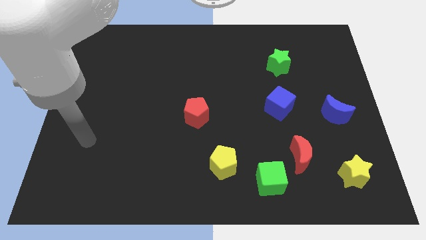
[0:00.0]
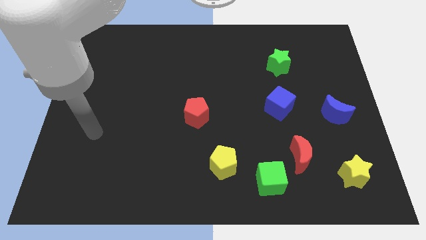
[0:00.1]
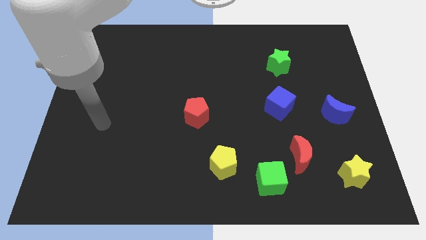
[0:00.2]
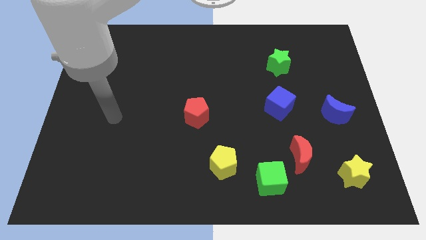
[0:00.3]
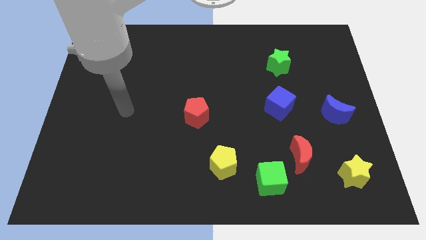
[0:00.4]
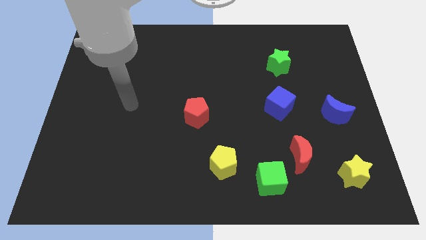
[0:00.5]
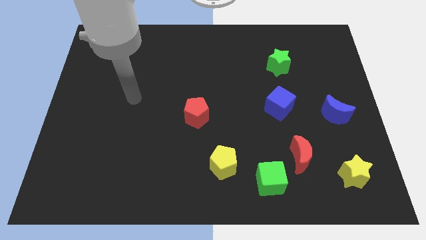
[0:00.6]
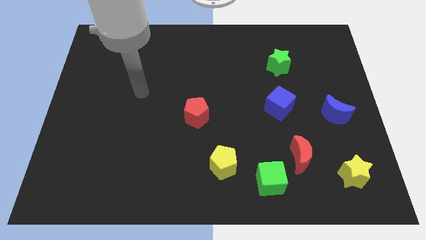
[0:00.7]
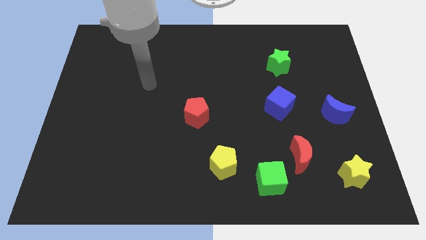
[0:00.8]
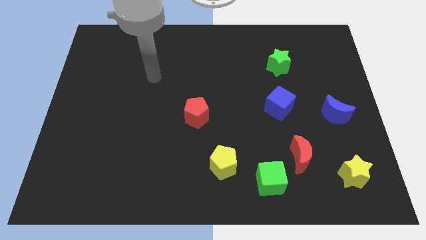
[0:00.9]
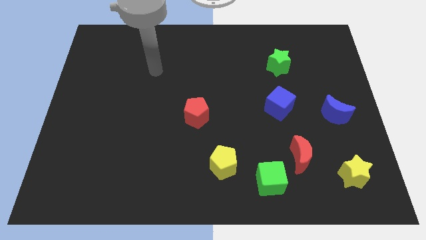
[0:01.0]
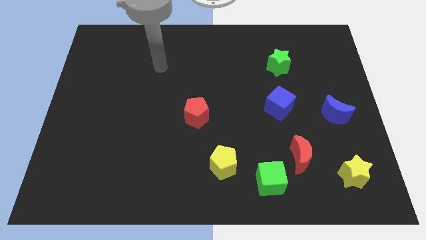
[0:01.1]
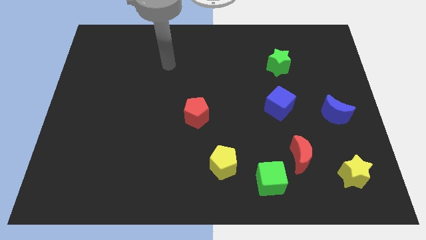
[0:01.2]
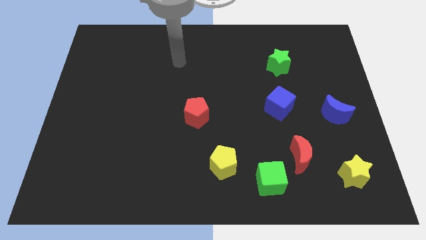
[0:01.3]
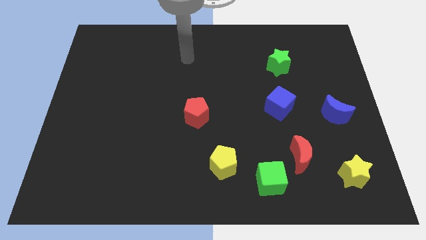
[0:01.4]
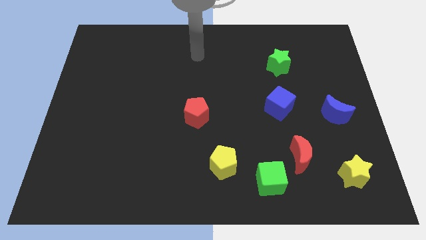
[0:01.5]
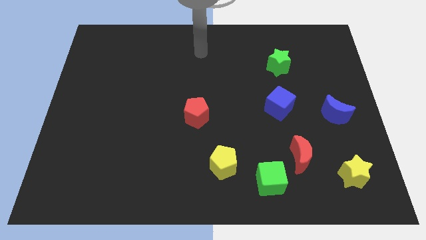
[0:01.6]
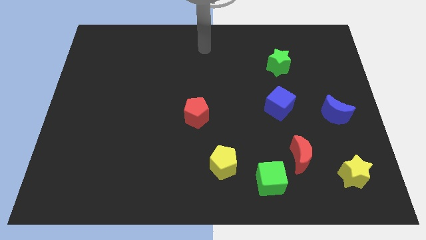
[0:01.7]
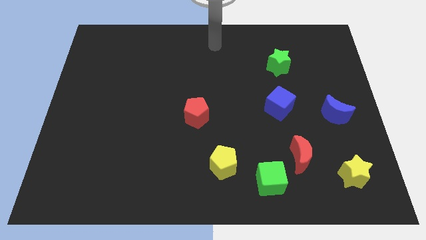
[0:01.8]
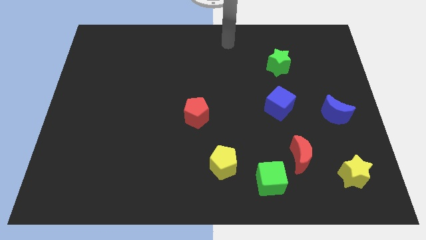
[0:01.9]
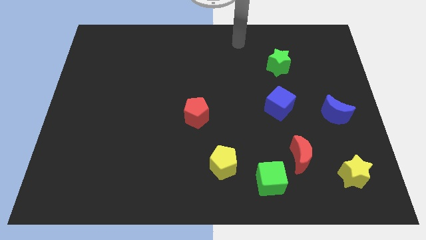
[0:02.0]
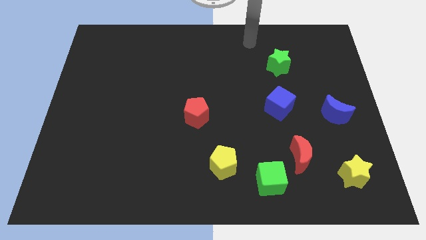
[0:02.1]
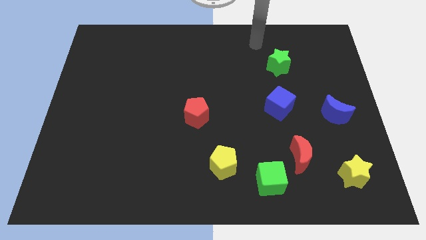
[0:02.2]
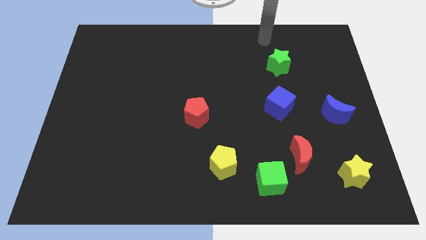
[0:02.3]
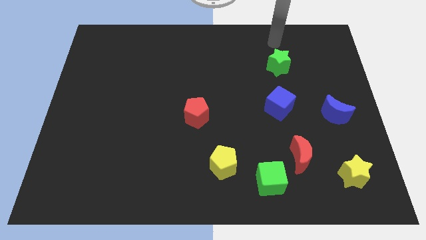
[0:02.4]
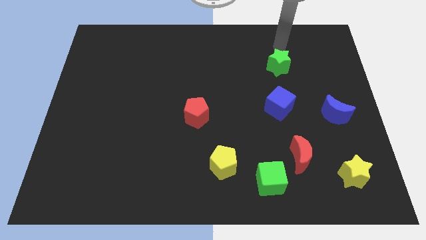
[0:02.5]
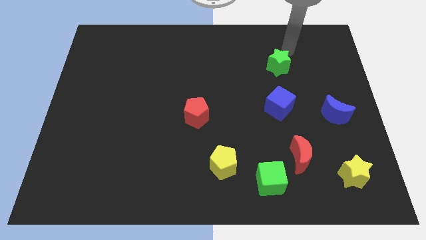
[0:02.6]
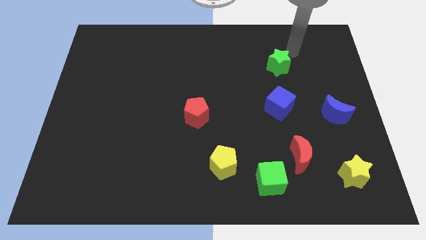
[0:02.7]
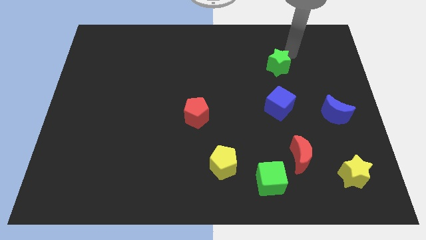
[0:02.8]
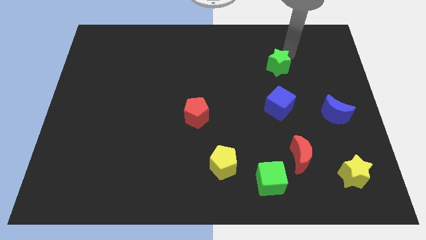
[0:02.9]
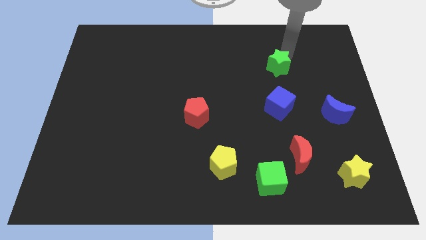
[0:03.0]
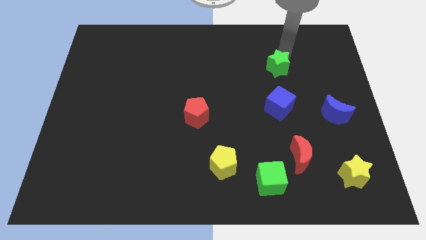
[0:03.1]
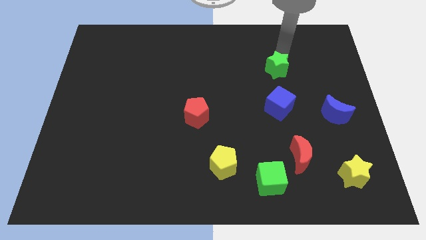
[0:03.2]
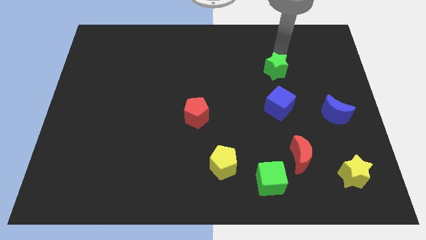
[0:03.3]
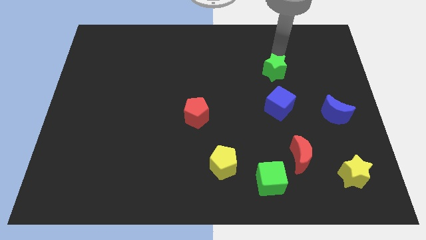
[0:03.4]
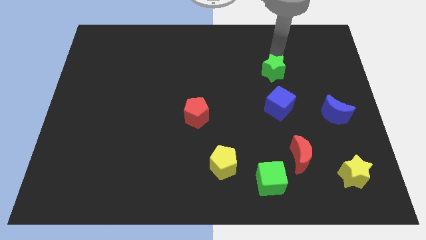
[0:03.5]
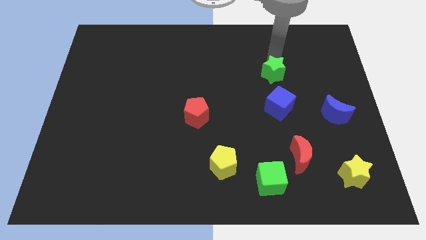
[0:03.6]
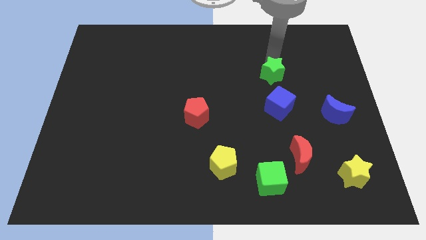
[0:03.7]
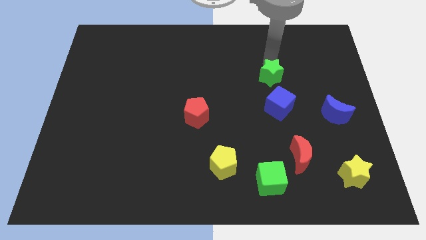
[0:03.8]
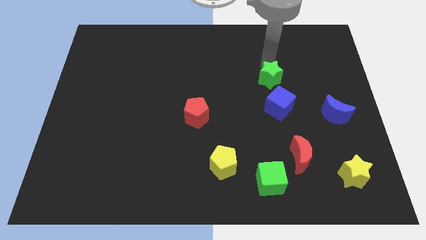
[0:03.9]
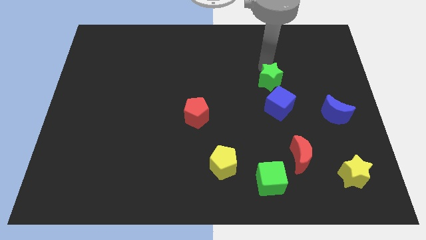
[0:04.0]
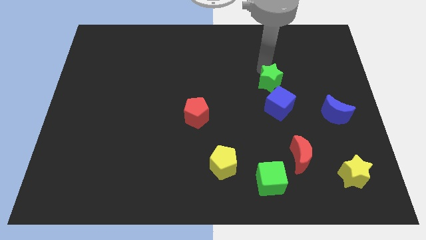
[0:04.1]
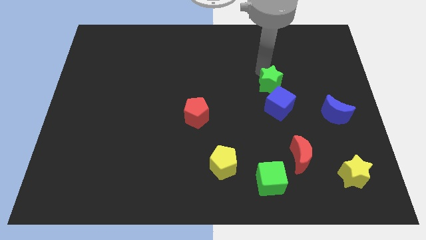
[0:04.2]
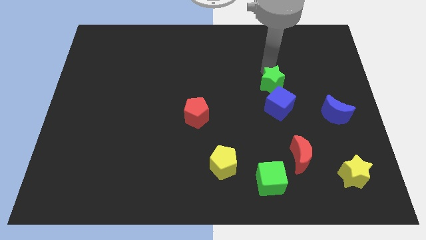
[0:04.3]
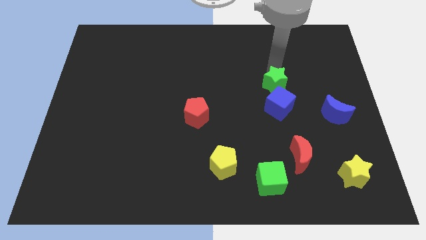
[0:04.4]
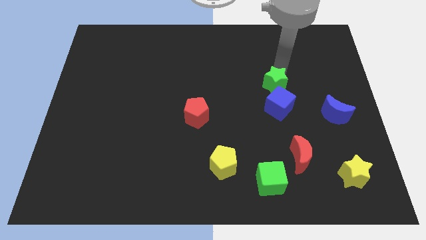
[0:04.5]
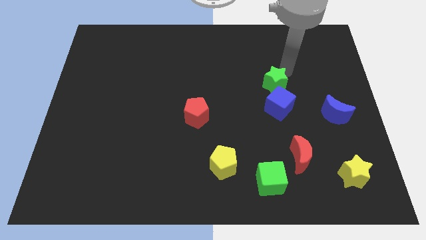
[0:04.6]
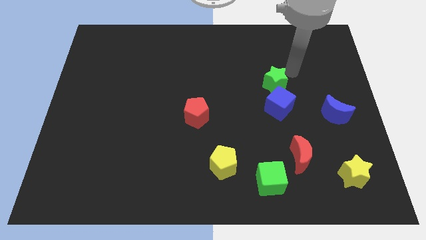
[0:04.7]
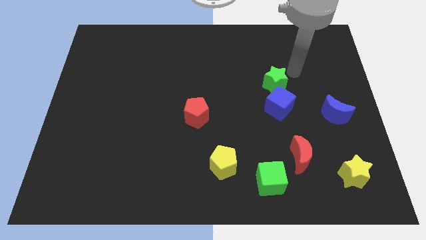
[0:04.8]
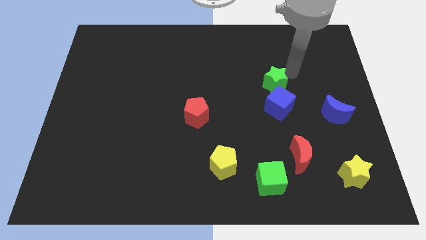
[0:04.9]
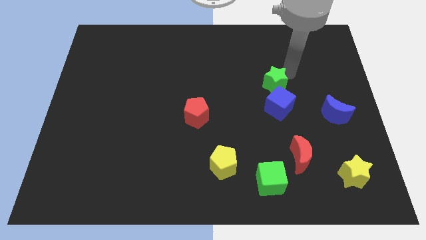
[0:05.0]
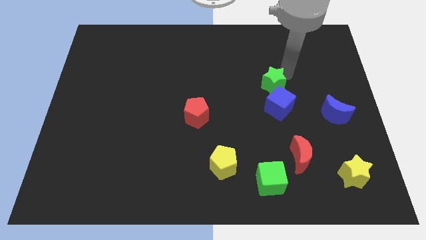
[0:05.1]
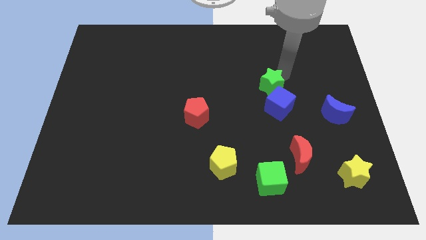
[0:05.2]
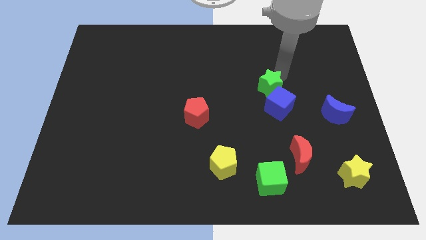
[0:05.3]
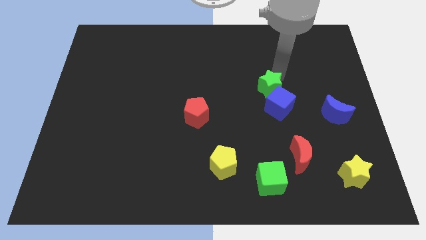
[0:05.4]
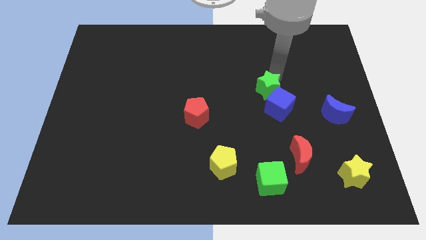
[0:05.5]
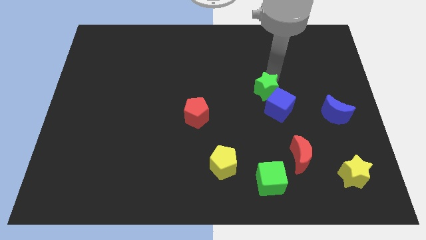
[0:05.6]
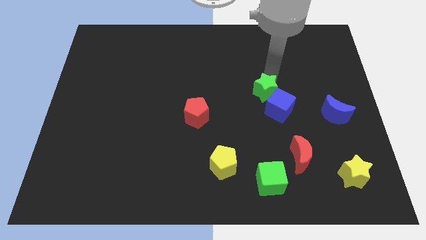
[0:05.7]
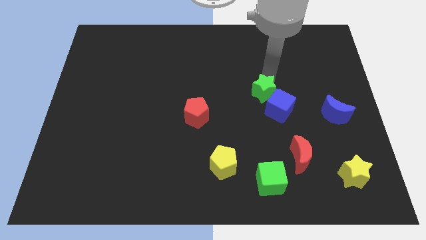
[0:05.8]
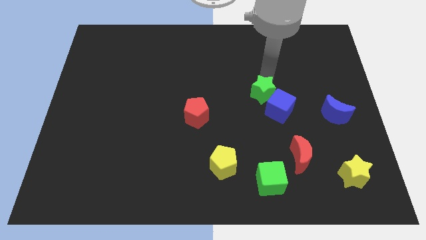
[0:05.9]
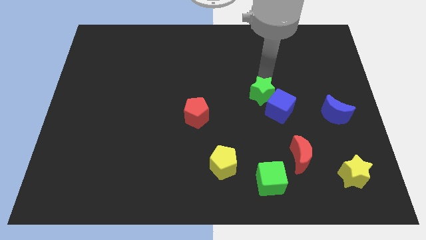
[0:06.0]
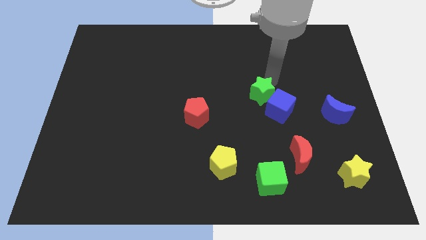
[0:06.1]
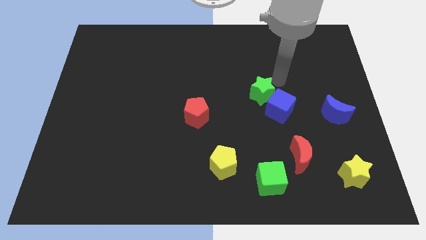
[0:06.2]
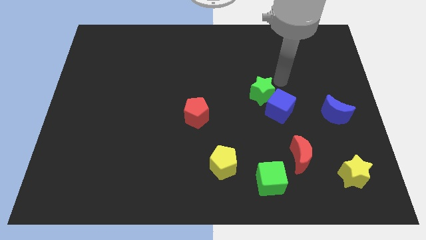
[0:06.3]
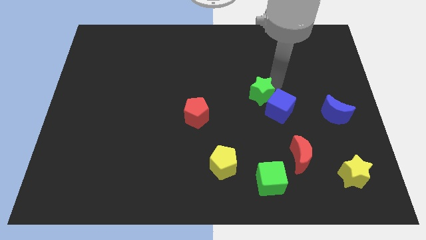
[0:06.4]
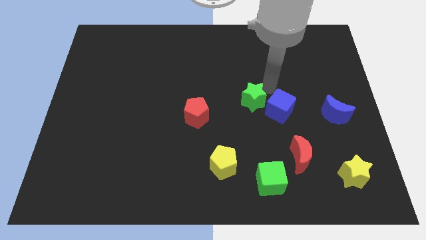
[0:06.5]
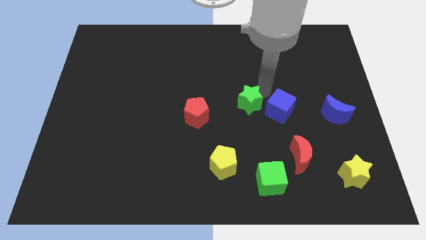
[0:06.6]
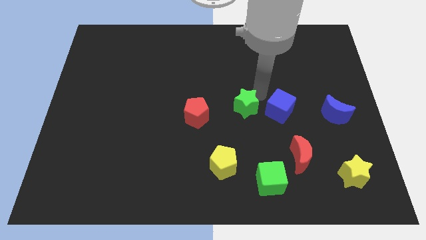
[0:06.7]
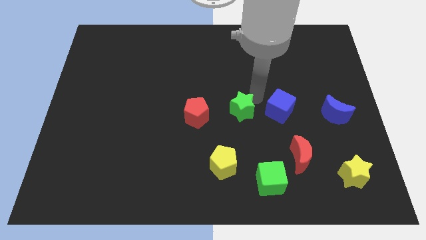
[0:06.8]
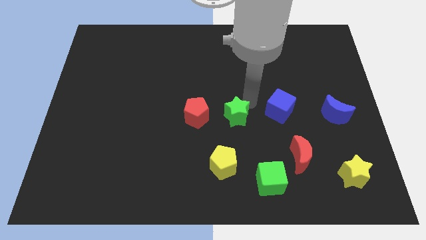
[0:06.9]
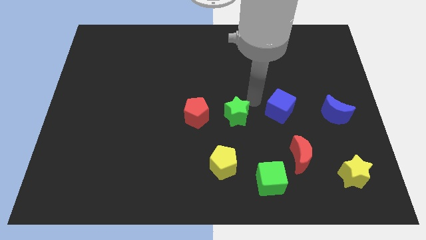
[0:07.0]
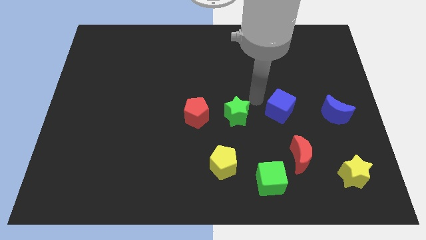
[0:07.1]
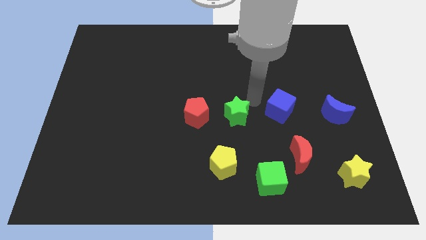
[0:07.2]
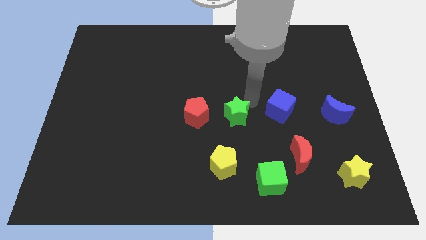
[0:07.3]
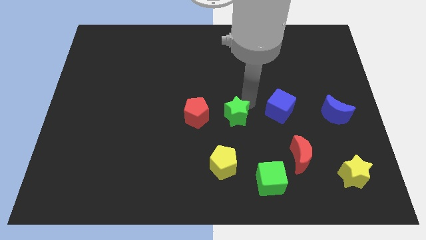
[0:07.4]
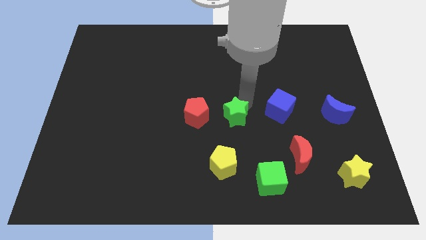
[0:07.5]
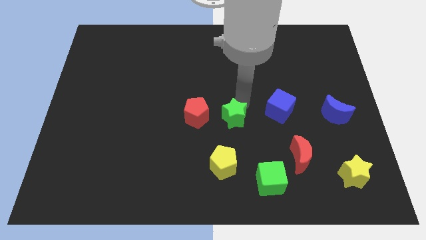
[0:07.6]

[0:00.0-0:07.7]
move the green star diagonally down and left

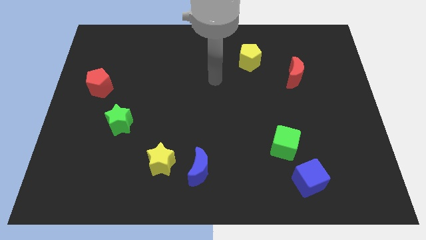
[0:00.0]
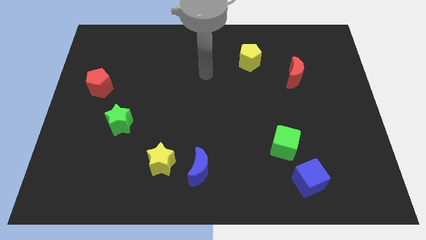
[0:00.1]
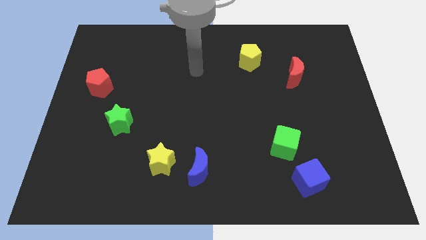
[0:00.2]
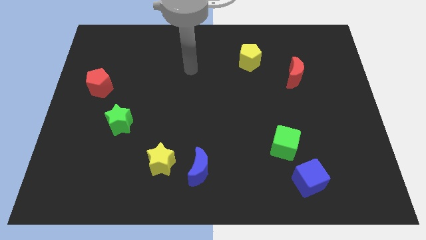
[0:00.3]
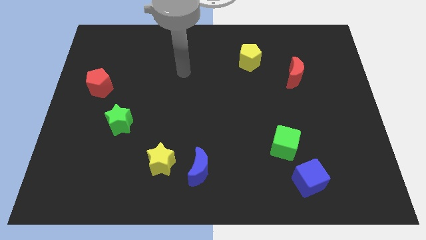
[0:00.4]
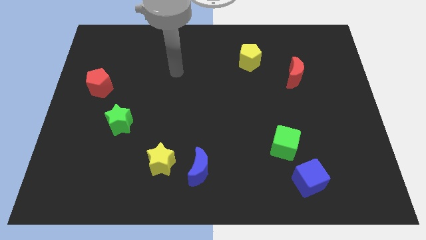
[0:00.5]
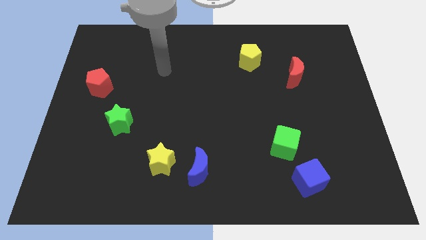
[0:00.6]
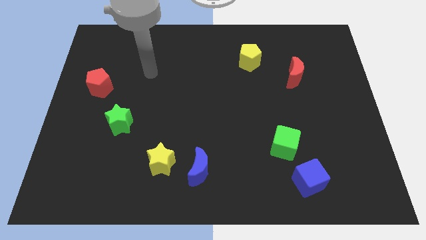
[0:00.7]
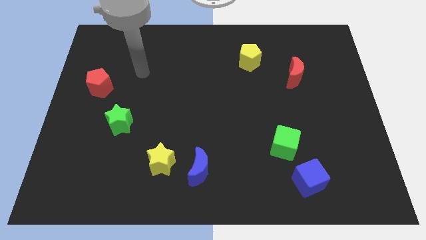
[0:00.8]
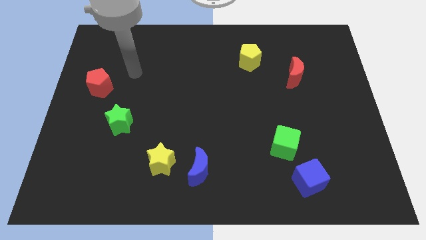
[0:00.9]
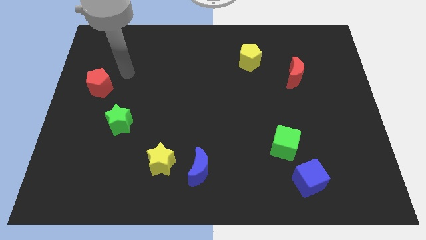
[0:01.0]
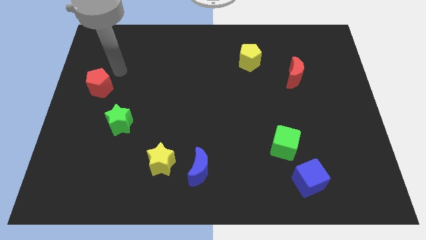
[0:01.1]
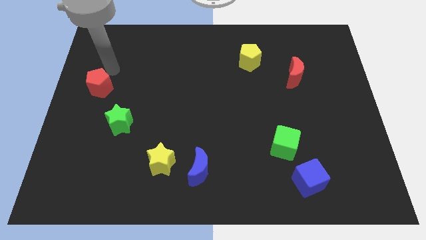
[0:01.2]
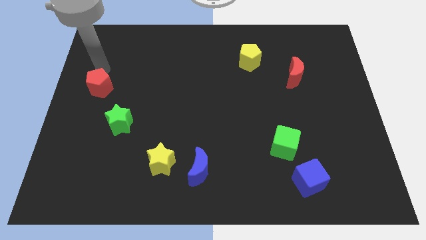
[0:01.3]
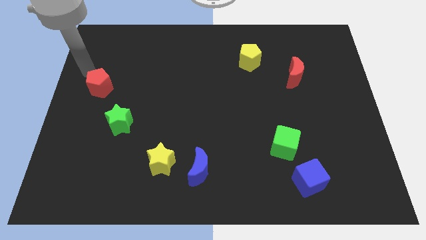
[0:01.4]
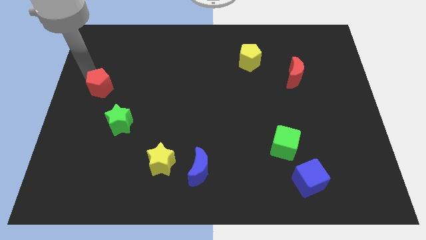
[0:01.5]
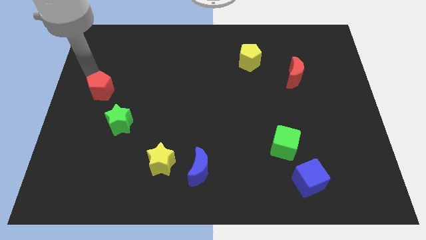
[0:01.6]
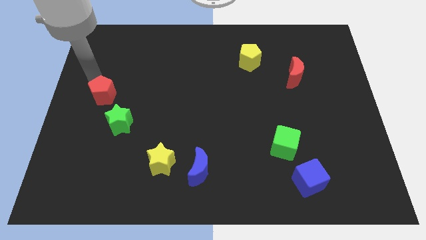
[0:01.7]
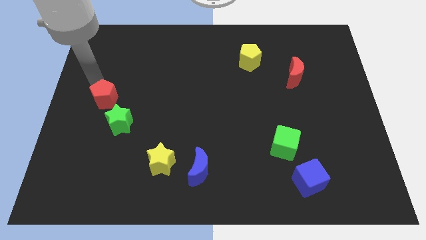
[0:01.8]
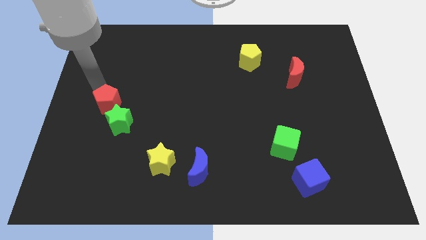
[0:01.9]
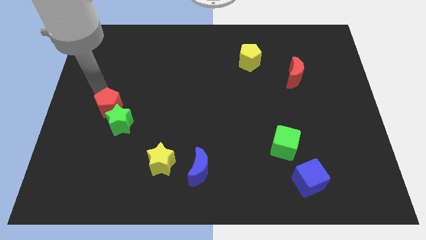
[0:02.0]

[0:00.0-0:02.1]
slightly move the red pentagon diagonally down and to the right
